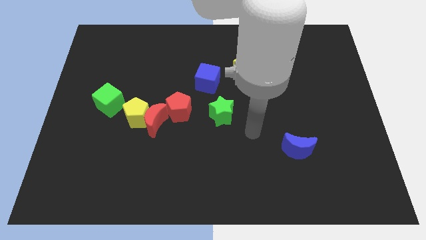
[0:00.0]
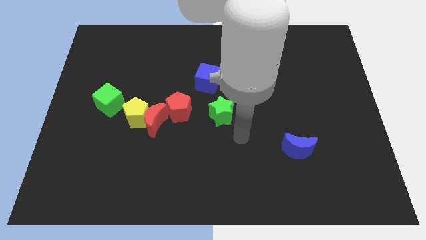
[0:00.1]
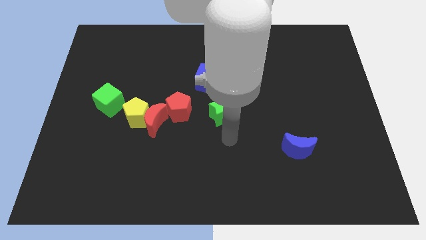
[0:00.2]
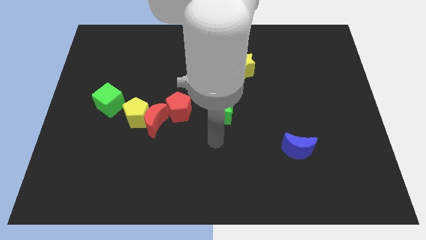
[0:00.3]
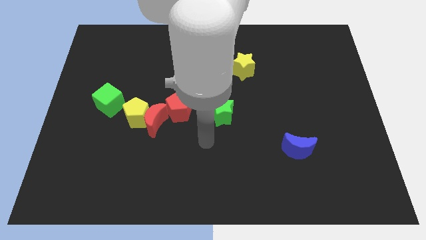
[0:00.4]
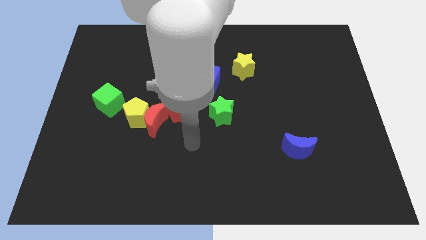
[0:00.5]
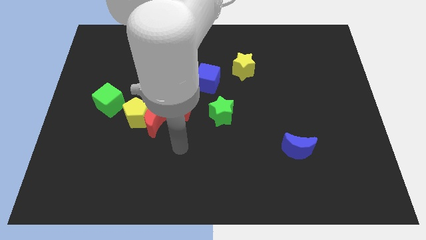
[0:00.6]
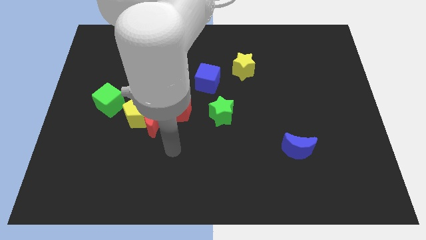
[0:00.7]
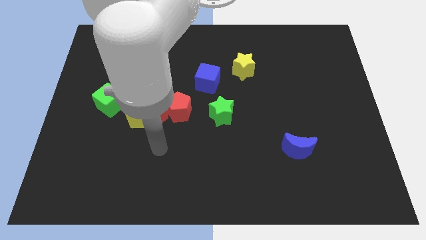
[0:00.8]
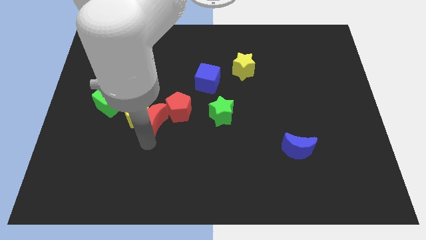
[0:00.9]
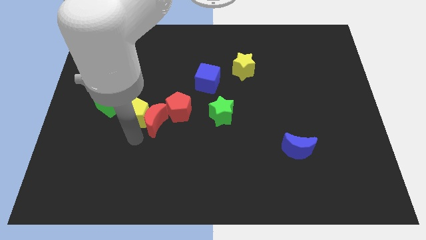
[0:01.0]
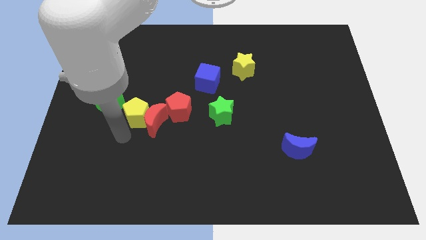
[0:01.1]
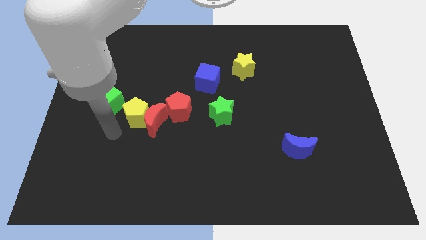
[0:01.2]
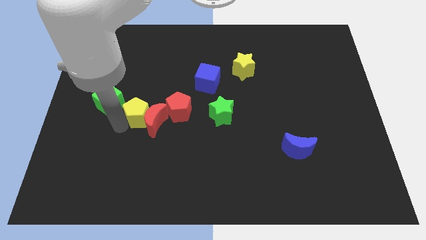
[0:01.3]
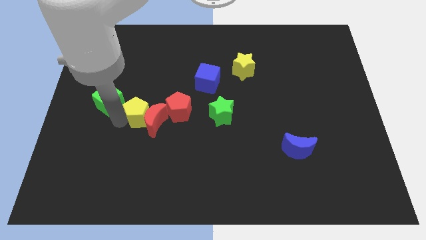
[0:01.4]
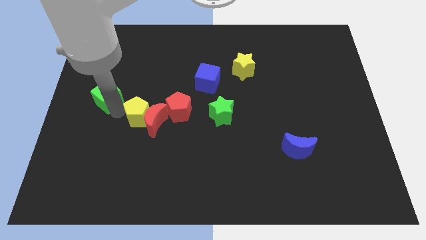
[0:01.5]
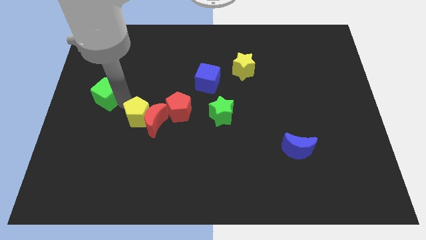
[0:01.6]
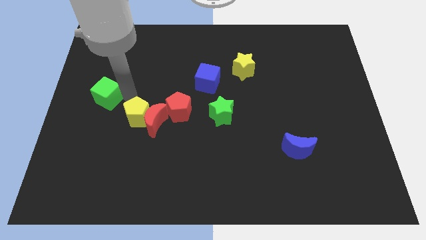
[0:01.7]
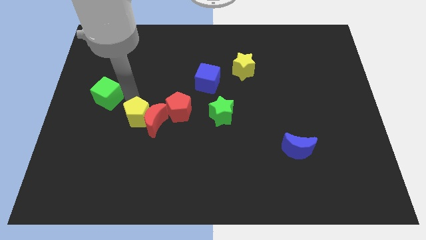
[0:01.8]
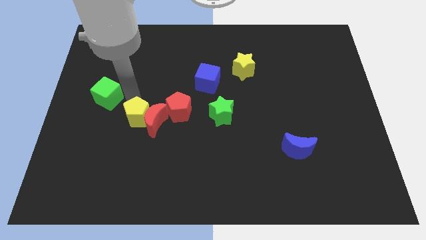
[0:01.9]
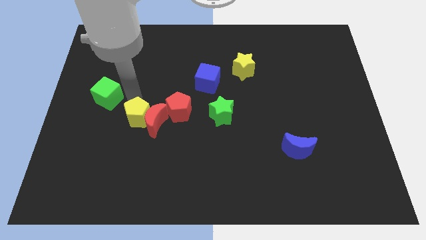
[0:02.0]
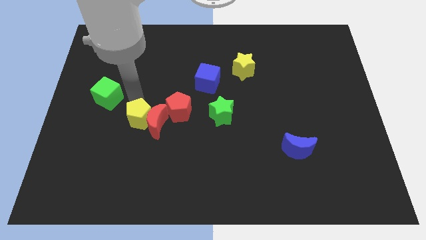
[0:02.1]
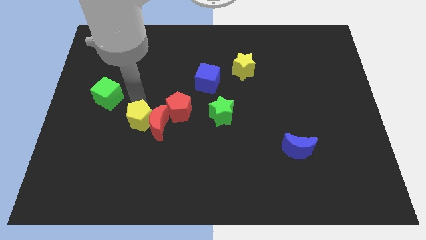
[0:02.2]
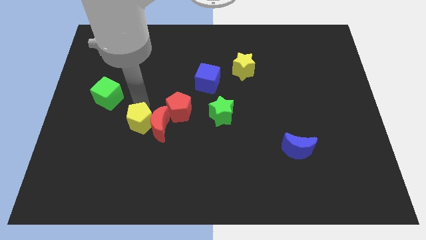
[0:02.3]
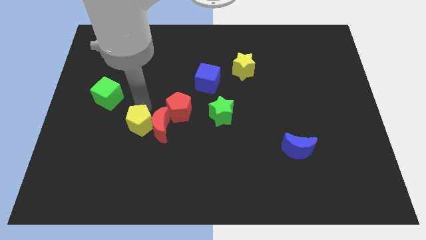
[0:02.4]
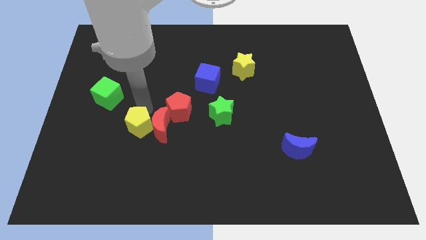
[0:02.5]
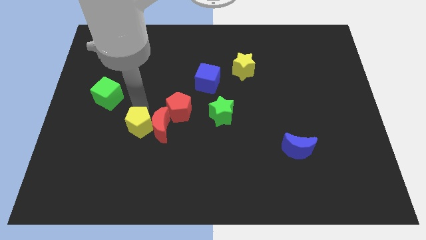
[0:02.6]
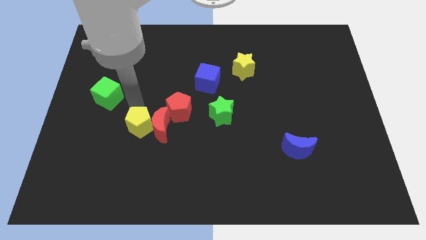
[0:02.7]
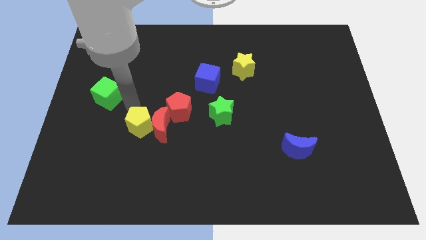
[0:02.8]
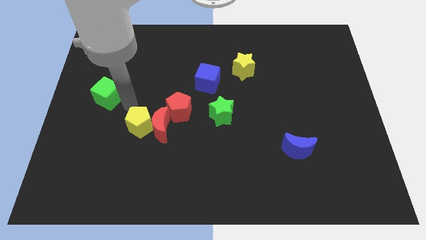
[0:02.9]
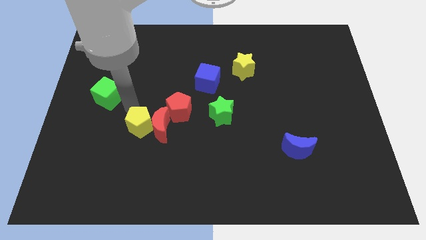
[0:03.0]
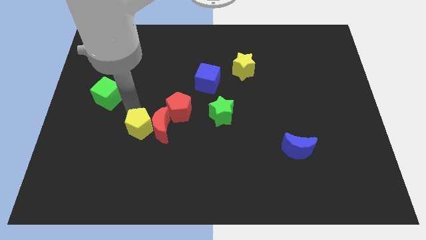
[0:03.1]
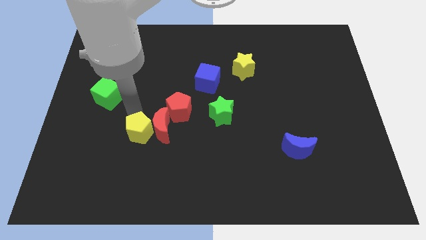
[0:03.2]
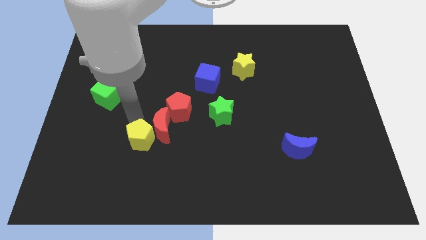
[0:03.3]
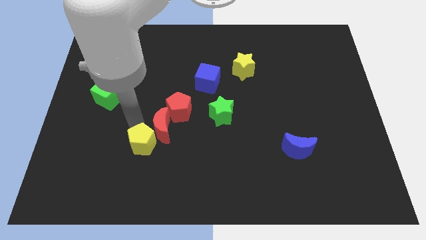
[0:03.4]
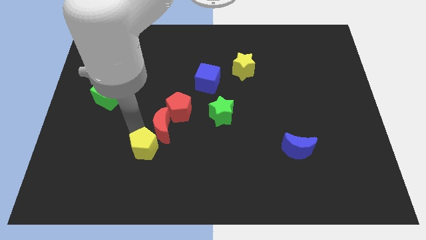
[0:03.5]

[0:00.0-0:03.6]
move the yellow pentagon somewhat down and then to the right

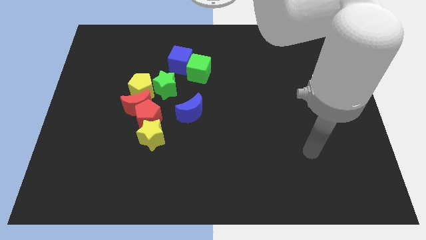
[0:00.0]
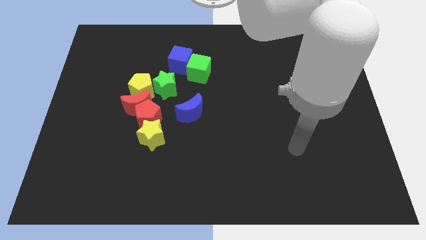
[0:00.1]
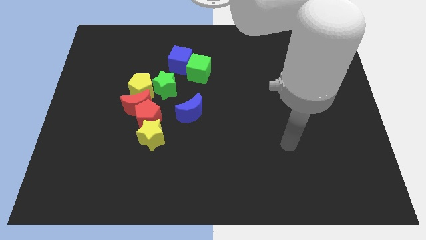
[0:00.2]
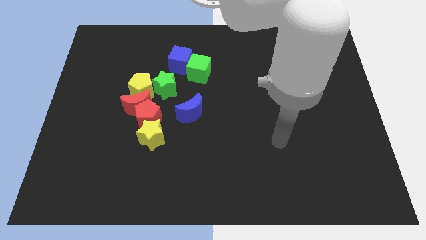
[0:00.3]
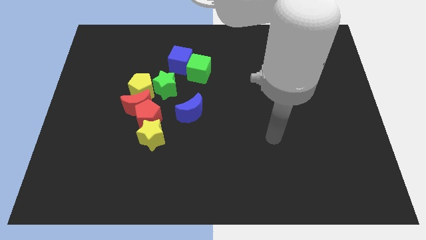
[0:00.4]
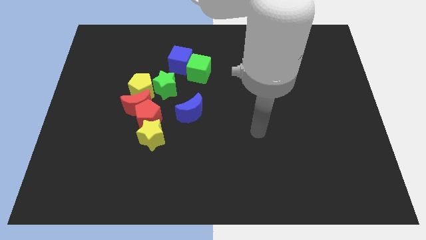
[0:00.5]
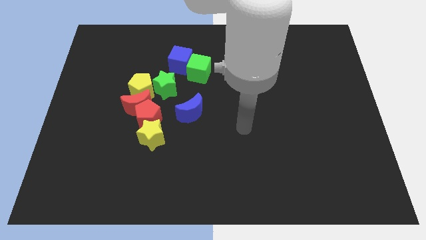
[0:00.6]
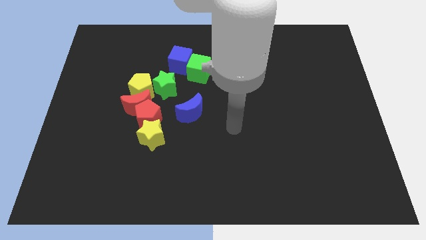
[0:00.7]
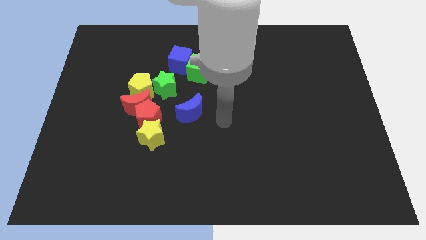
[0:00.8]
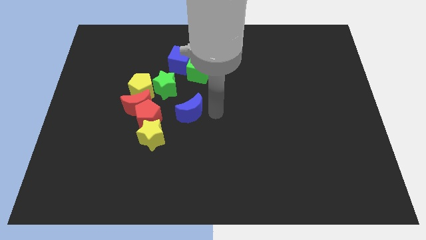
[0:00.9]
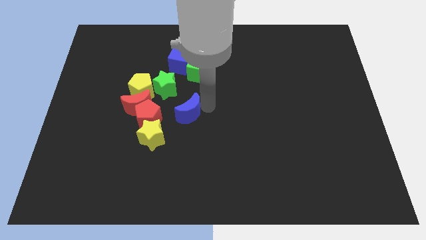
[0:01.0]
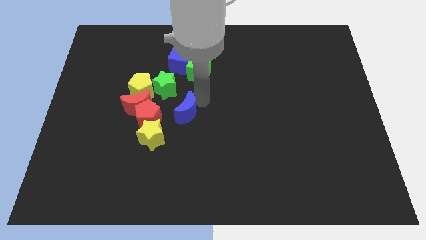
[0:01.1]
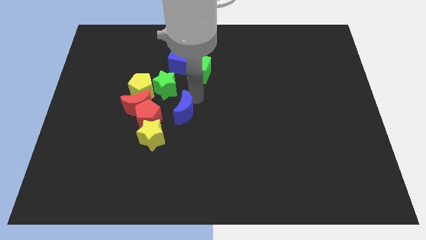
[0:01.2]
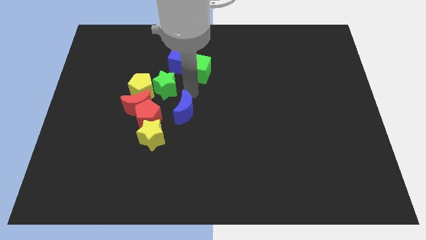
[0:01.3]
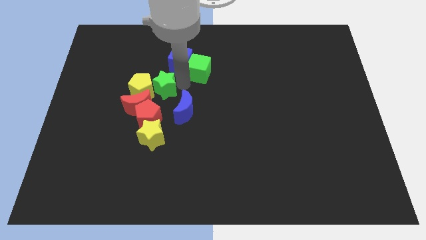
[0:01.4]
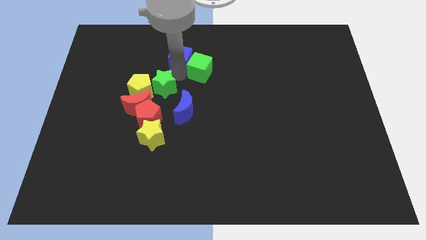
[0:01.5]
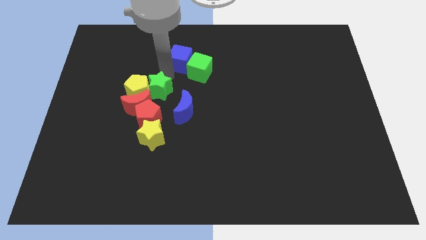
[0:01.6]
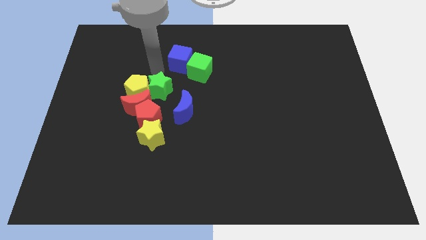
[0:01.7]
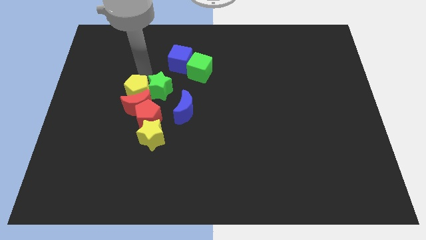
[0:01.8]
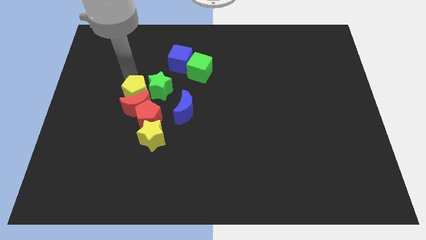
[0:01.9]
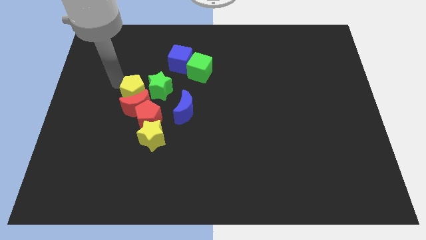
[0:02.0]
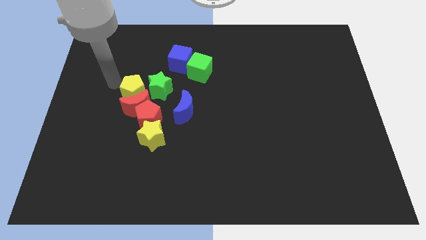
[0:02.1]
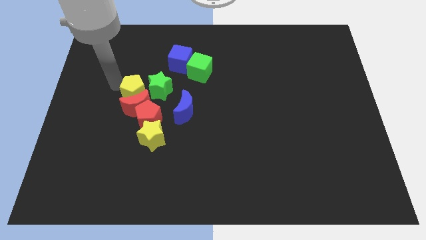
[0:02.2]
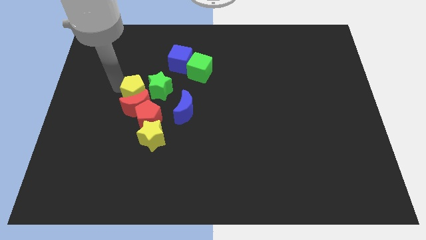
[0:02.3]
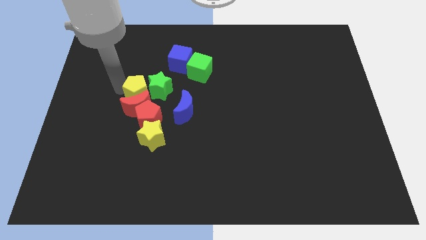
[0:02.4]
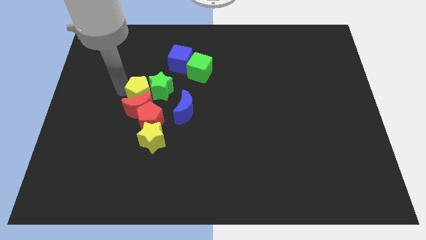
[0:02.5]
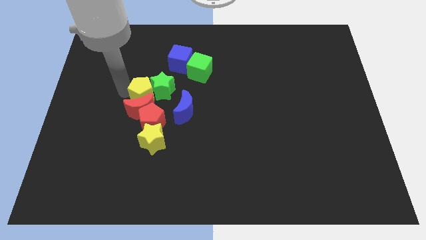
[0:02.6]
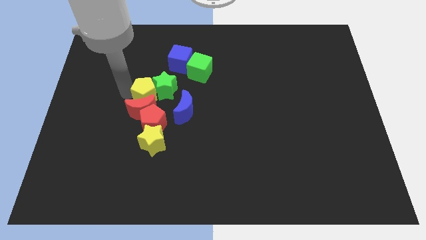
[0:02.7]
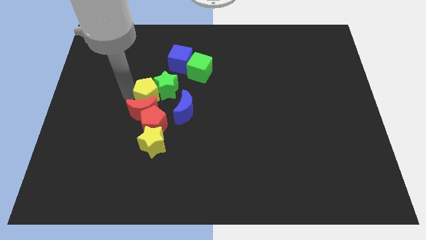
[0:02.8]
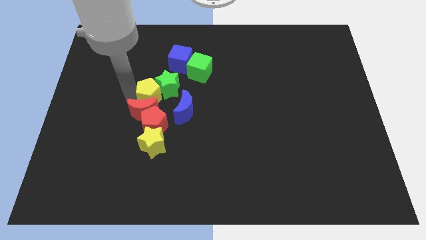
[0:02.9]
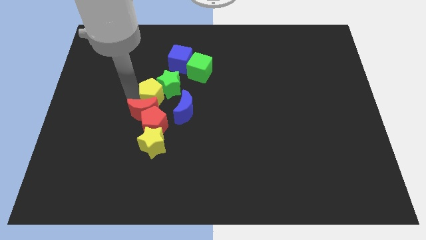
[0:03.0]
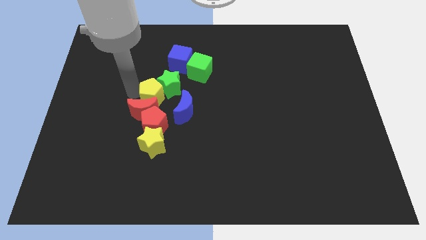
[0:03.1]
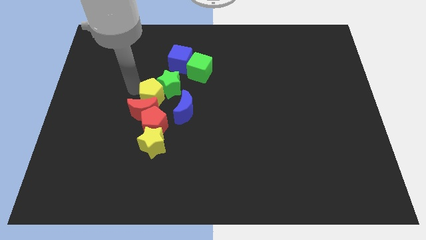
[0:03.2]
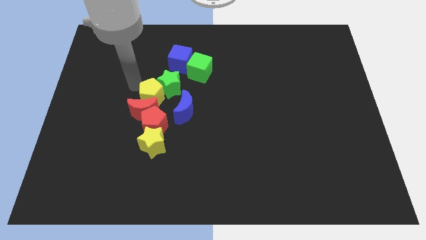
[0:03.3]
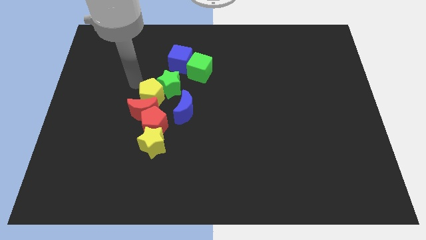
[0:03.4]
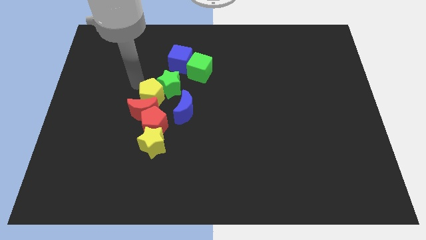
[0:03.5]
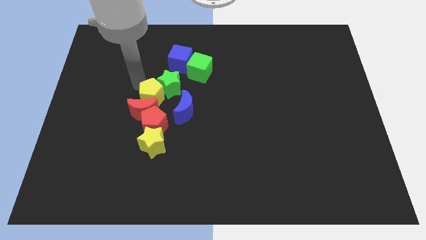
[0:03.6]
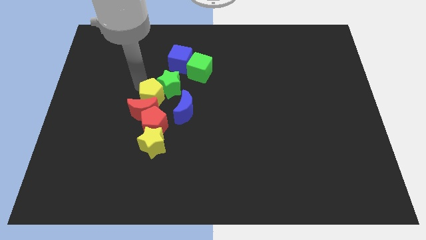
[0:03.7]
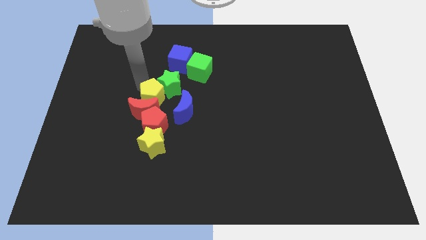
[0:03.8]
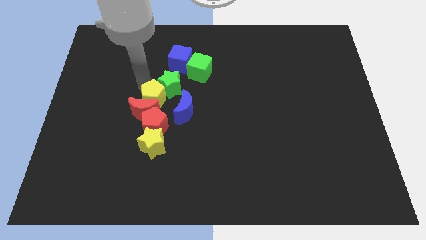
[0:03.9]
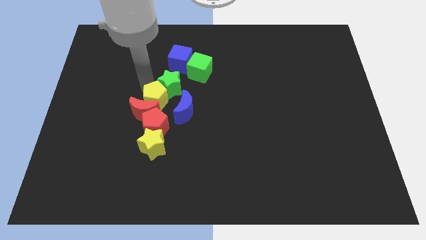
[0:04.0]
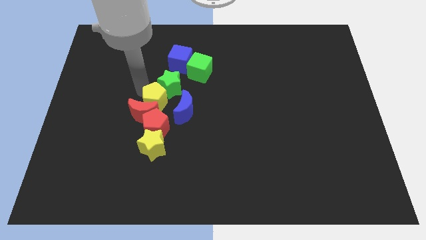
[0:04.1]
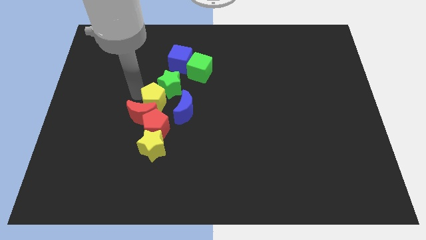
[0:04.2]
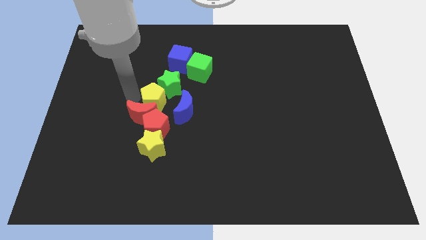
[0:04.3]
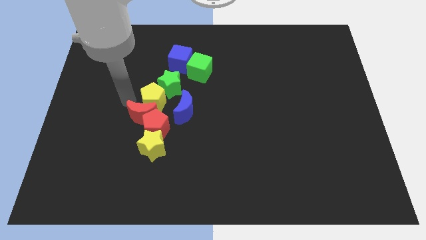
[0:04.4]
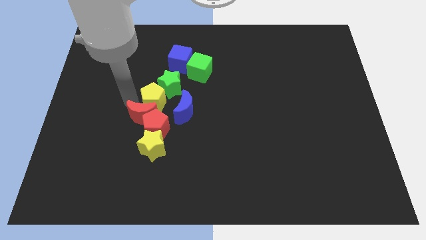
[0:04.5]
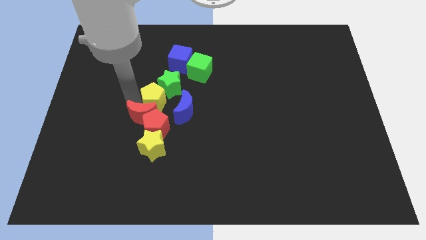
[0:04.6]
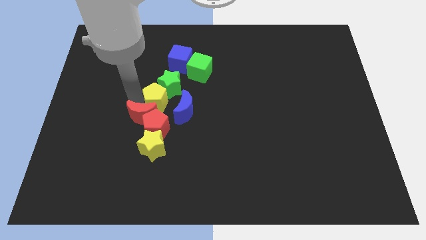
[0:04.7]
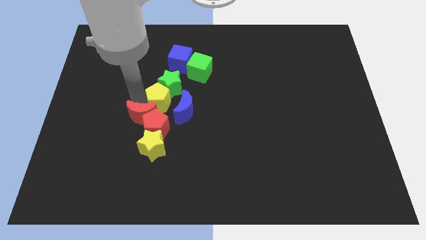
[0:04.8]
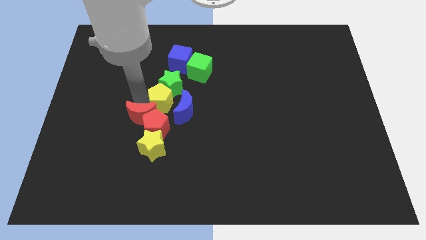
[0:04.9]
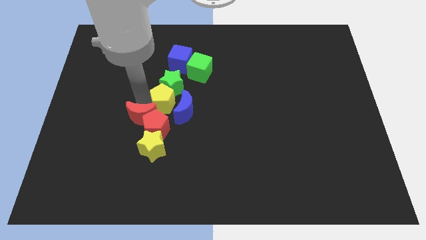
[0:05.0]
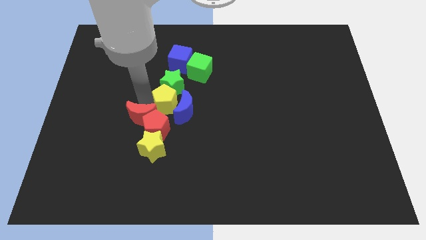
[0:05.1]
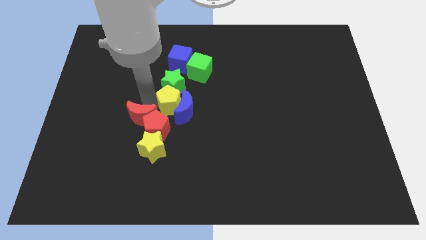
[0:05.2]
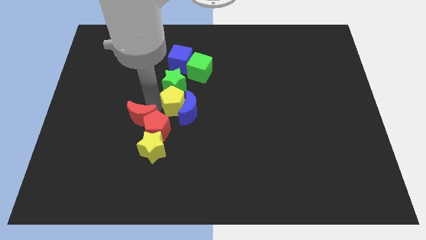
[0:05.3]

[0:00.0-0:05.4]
push the yellow pentagon a little right
